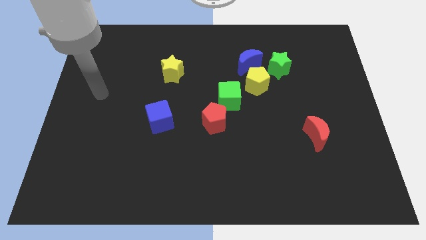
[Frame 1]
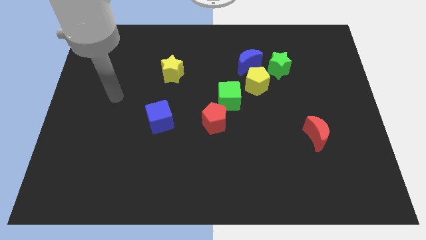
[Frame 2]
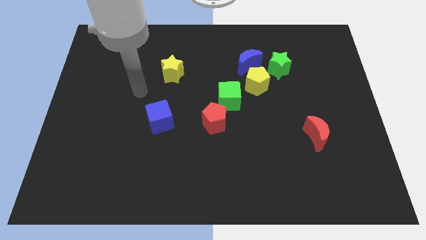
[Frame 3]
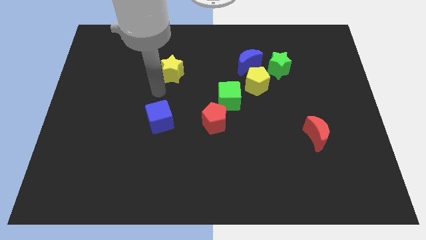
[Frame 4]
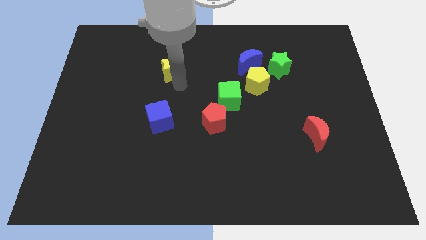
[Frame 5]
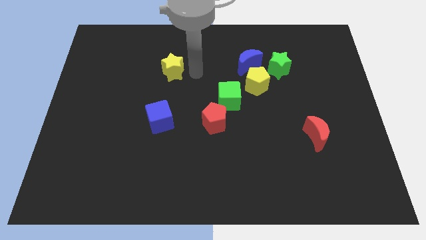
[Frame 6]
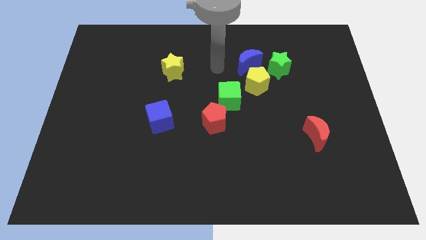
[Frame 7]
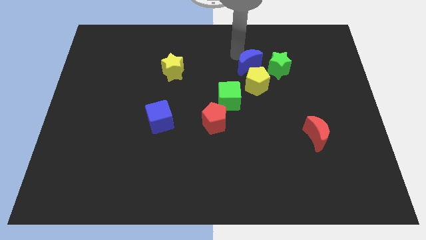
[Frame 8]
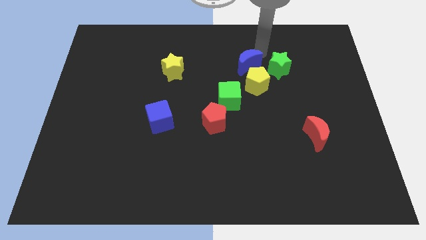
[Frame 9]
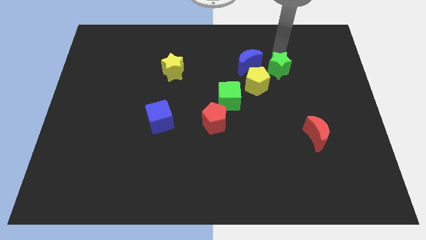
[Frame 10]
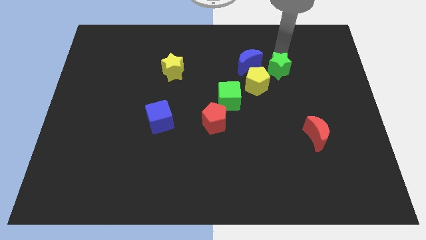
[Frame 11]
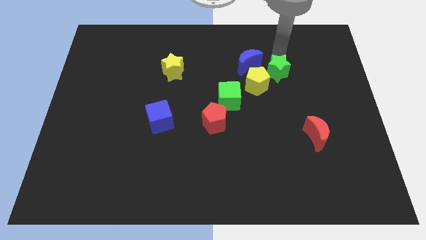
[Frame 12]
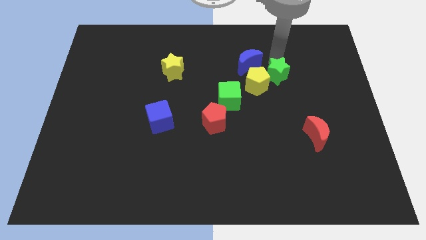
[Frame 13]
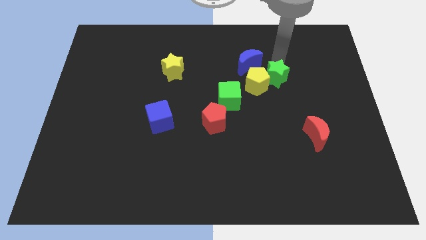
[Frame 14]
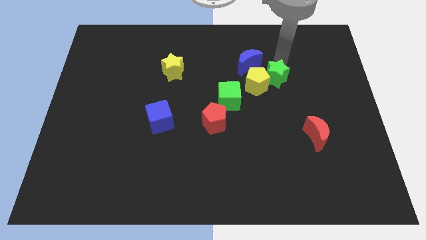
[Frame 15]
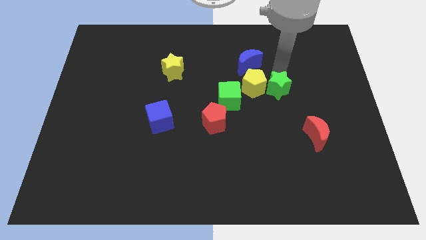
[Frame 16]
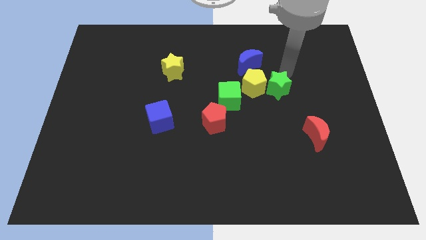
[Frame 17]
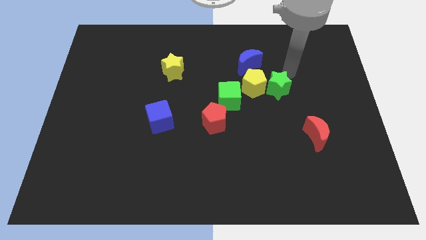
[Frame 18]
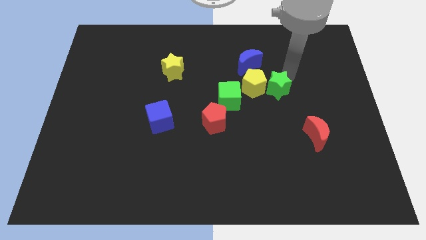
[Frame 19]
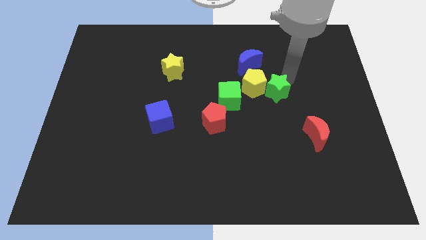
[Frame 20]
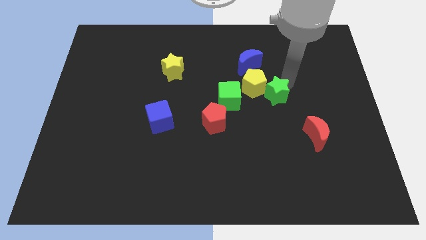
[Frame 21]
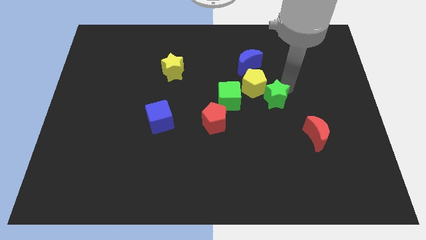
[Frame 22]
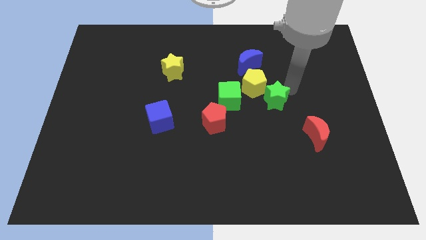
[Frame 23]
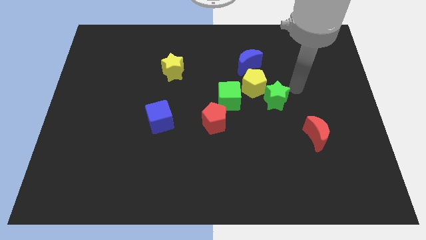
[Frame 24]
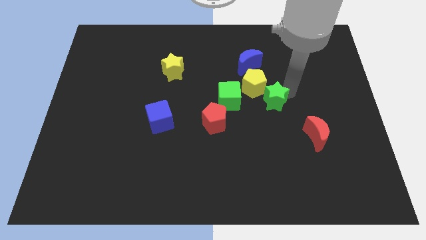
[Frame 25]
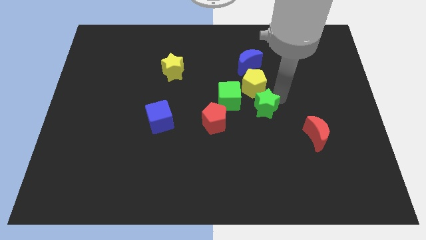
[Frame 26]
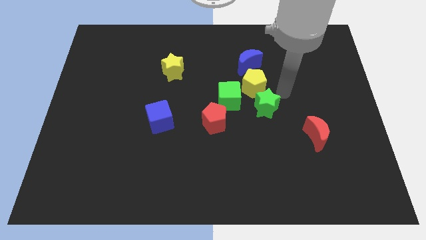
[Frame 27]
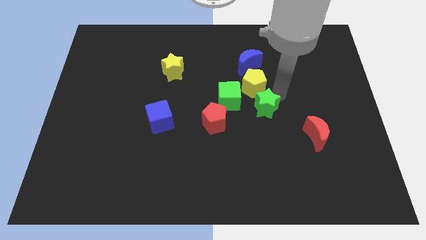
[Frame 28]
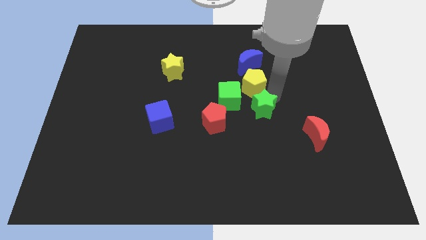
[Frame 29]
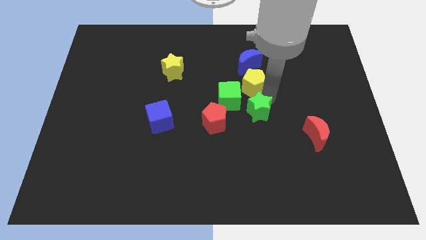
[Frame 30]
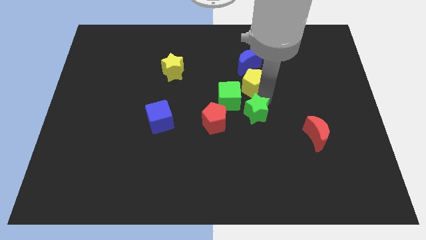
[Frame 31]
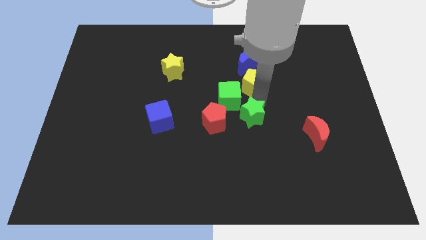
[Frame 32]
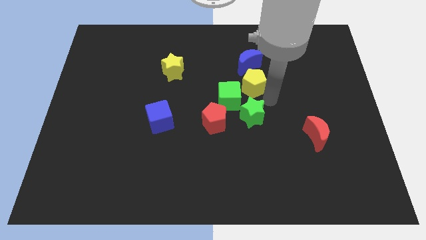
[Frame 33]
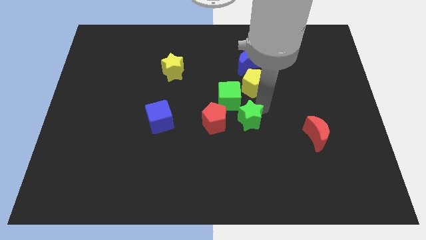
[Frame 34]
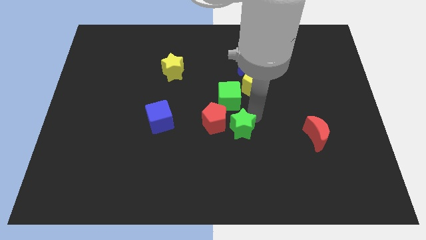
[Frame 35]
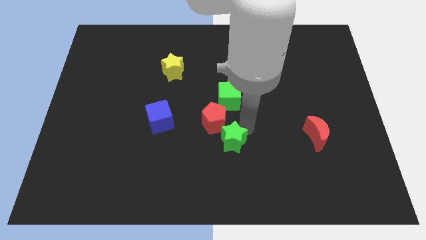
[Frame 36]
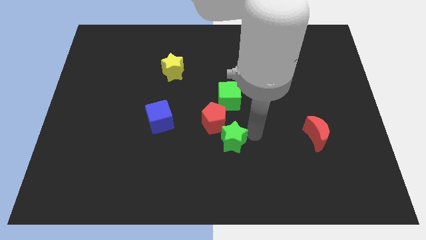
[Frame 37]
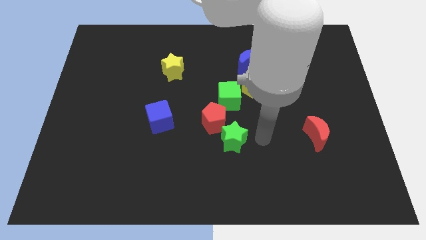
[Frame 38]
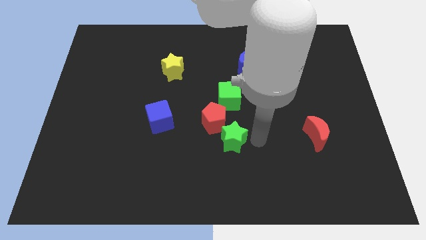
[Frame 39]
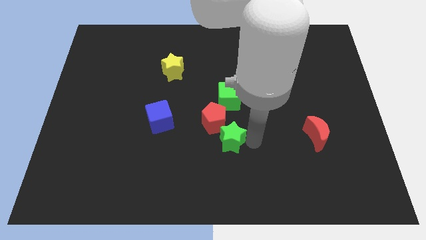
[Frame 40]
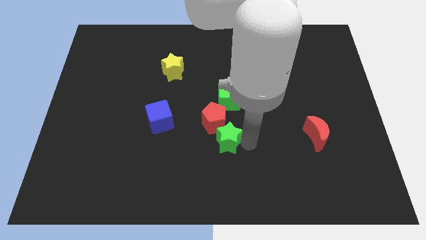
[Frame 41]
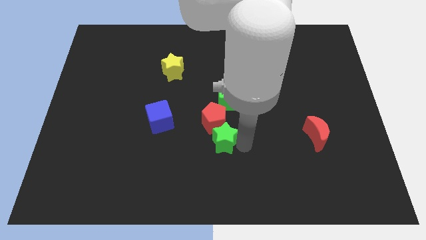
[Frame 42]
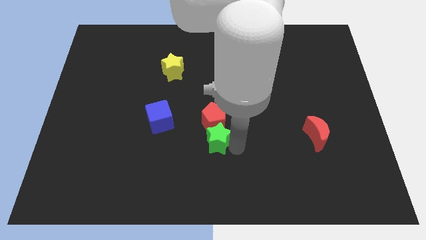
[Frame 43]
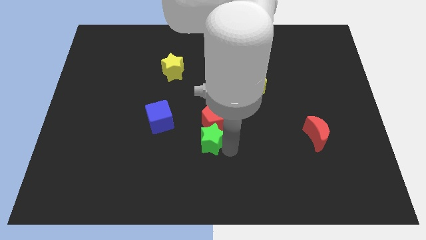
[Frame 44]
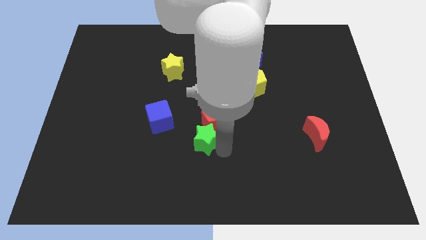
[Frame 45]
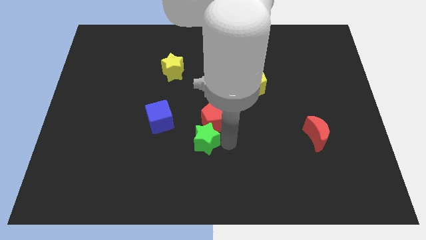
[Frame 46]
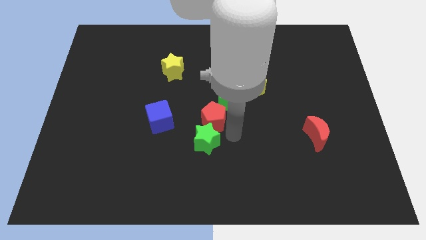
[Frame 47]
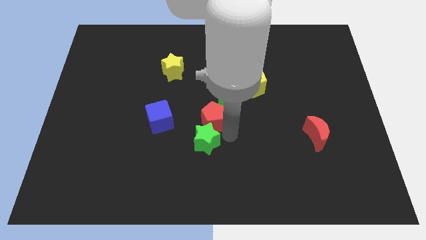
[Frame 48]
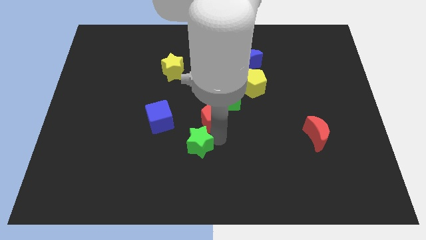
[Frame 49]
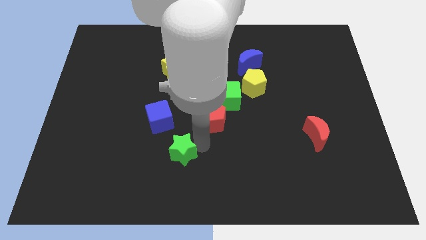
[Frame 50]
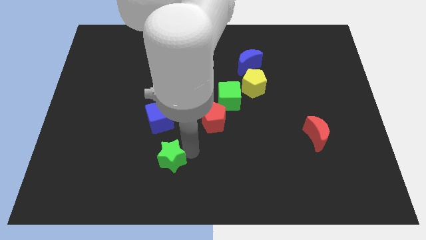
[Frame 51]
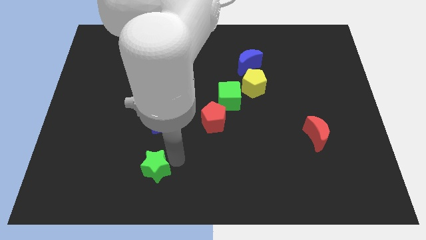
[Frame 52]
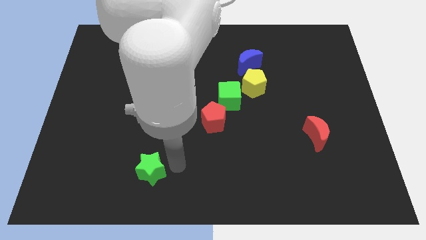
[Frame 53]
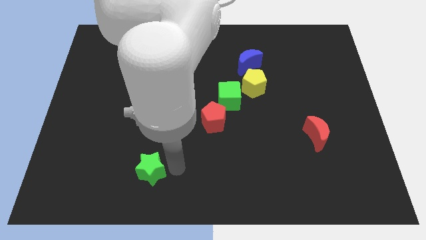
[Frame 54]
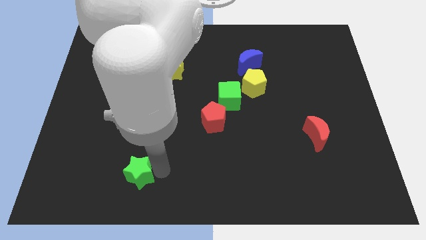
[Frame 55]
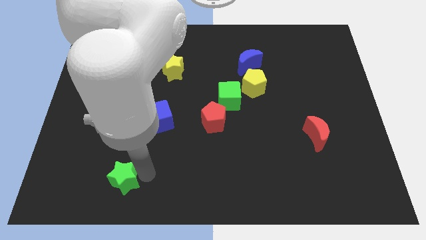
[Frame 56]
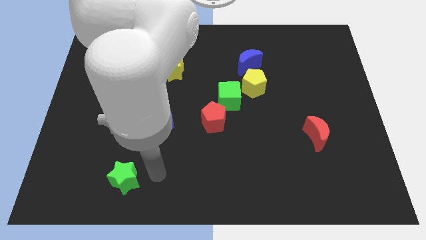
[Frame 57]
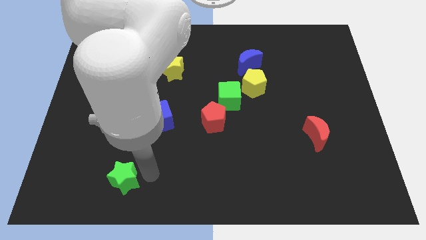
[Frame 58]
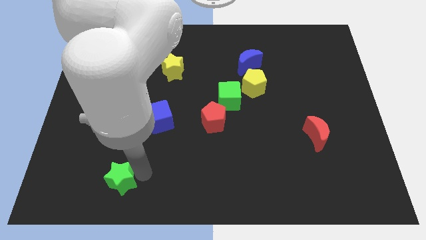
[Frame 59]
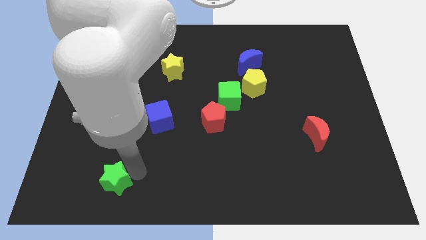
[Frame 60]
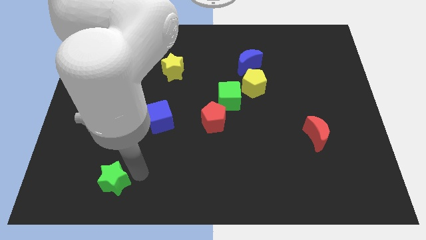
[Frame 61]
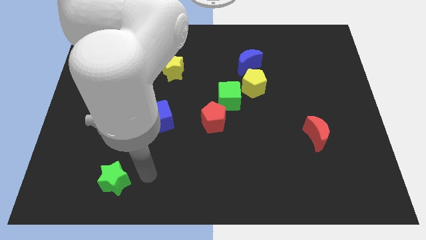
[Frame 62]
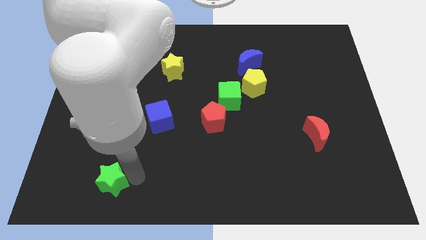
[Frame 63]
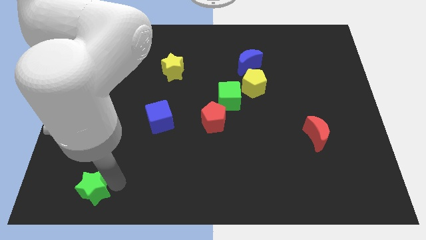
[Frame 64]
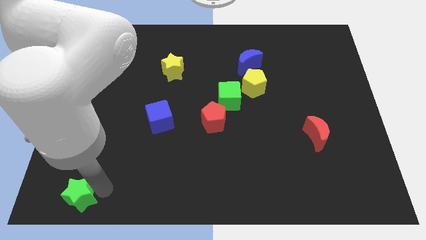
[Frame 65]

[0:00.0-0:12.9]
move the green star to the bottom left
